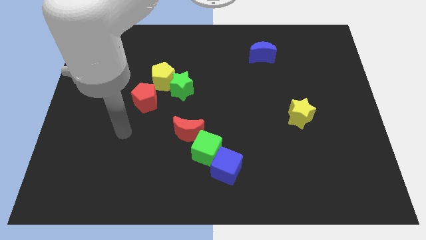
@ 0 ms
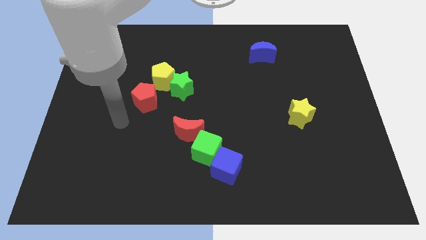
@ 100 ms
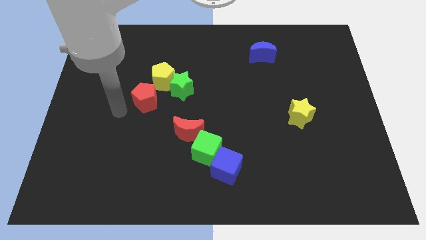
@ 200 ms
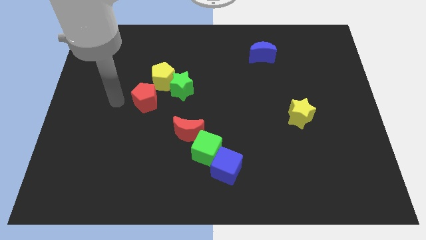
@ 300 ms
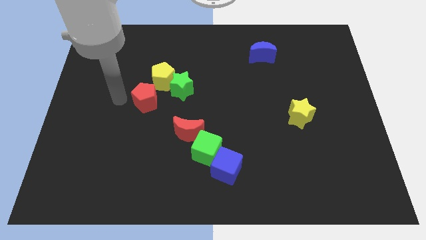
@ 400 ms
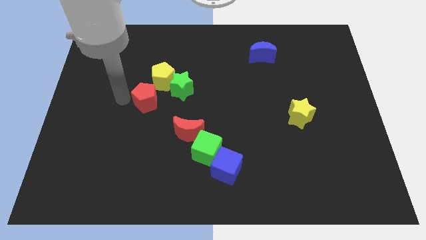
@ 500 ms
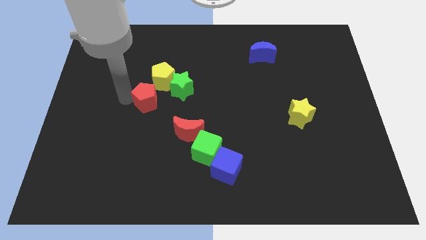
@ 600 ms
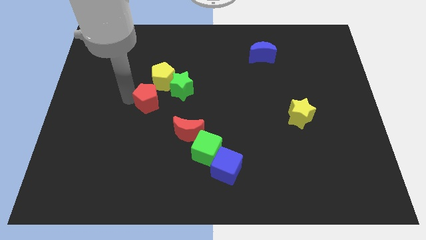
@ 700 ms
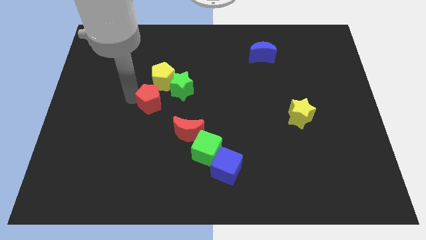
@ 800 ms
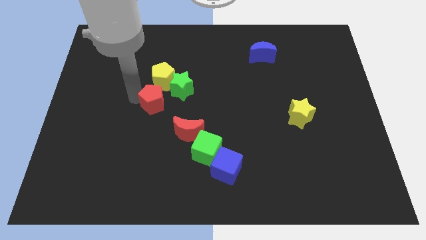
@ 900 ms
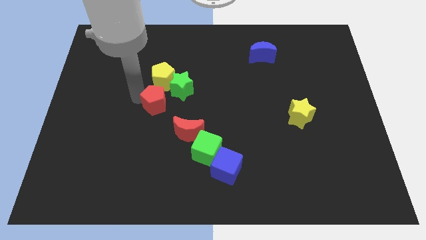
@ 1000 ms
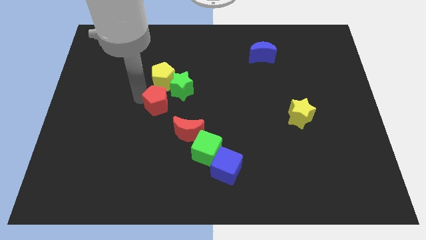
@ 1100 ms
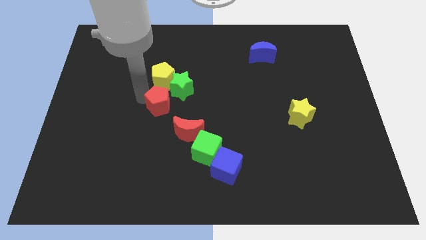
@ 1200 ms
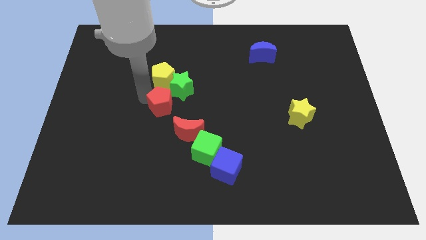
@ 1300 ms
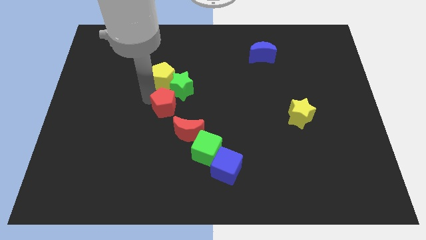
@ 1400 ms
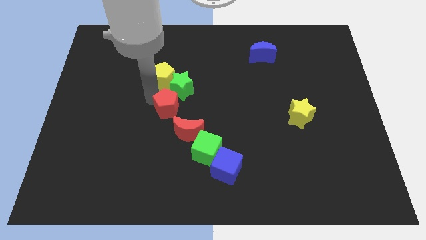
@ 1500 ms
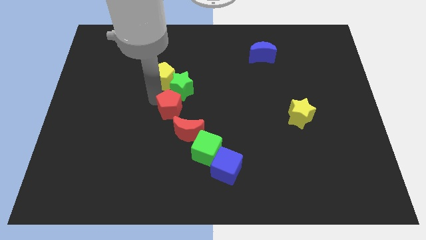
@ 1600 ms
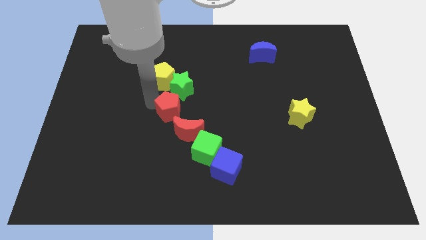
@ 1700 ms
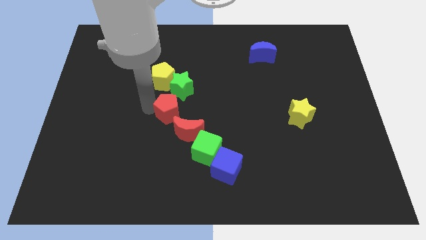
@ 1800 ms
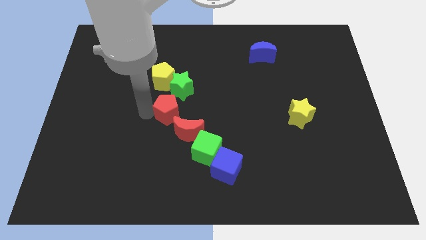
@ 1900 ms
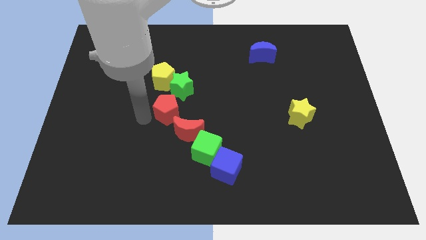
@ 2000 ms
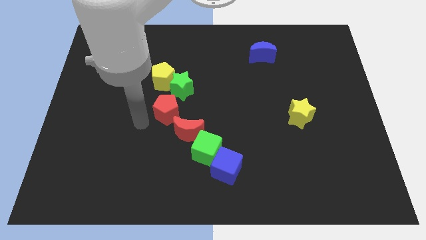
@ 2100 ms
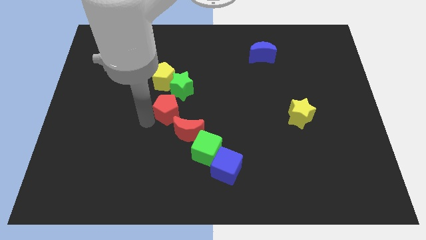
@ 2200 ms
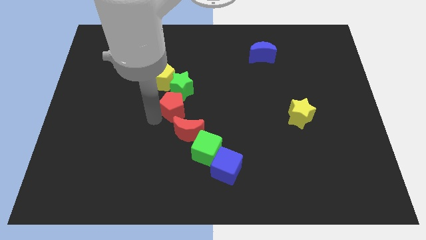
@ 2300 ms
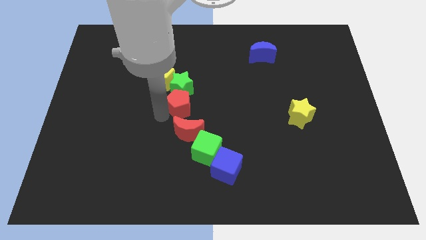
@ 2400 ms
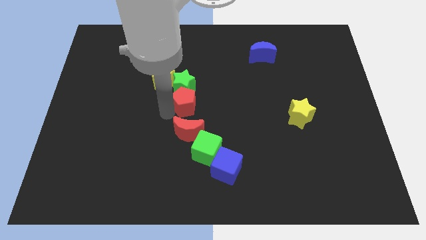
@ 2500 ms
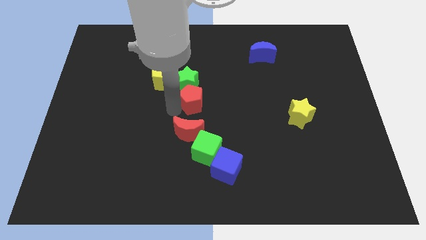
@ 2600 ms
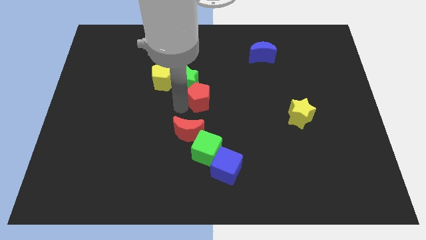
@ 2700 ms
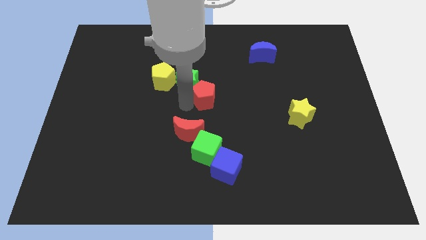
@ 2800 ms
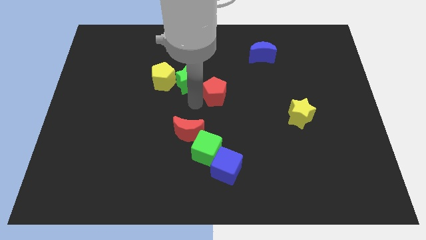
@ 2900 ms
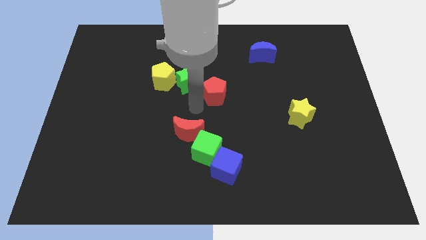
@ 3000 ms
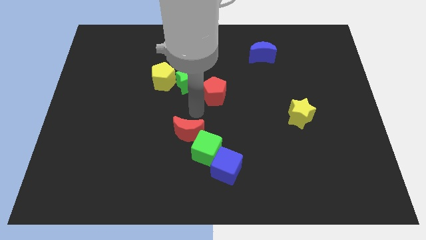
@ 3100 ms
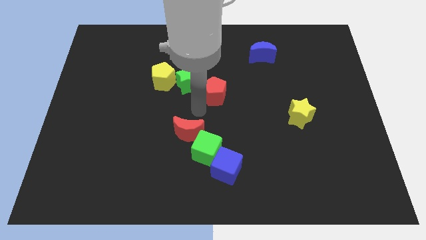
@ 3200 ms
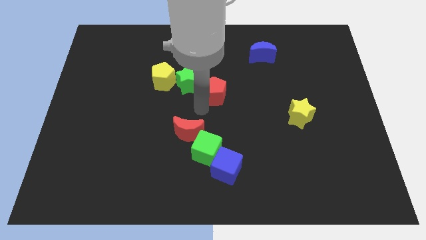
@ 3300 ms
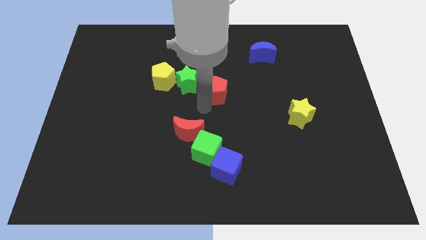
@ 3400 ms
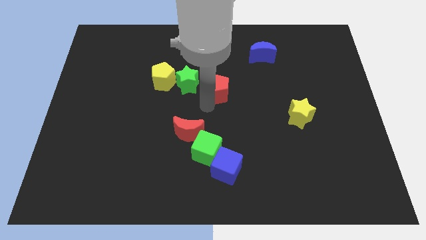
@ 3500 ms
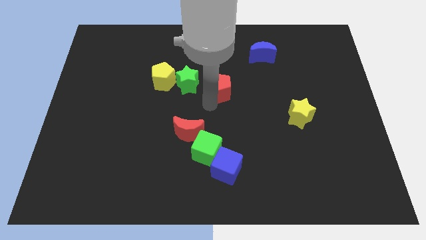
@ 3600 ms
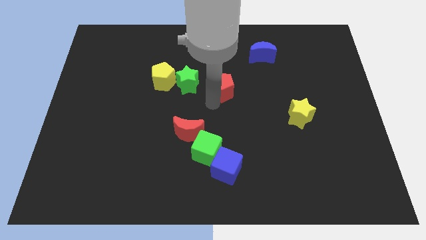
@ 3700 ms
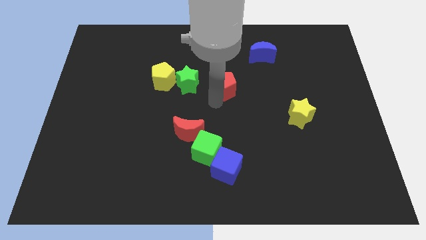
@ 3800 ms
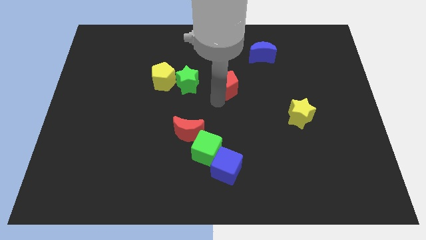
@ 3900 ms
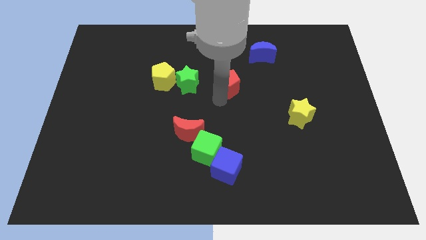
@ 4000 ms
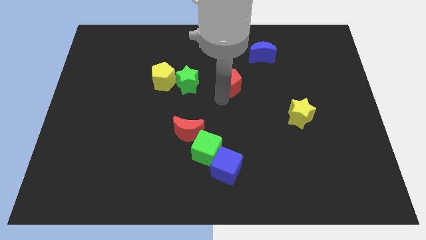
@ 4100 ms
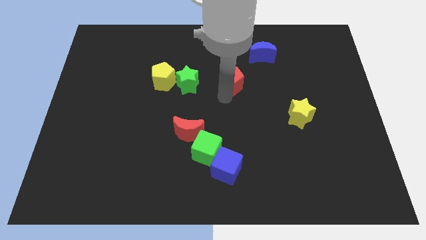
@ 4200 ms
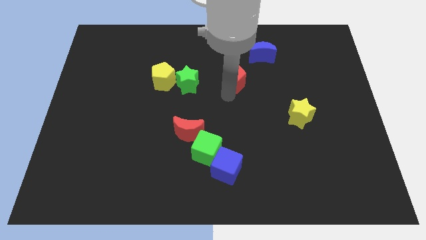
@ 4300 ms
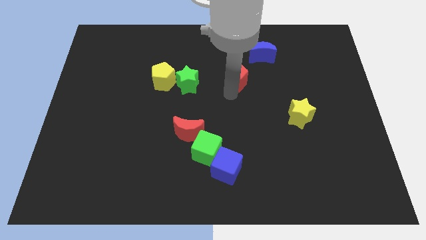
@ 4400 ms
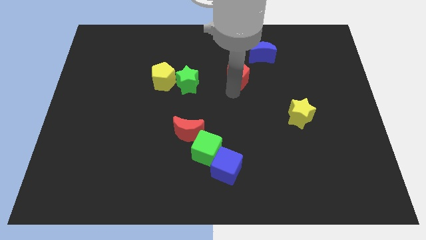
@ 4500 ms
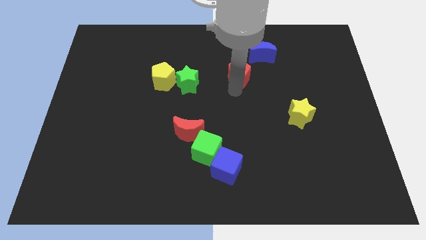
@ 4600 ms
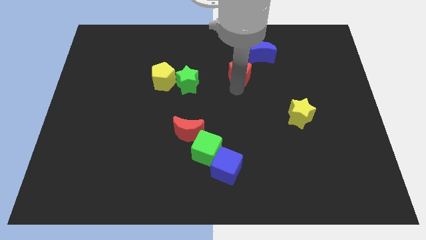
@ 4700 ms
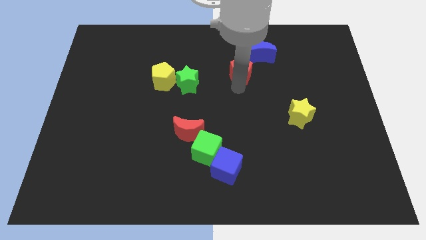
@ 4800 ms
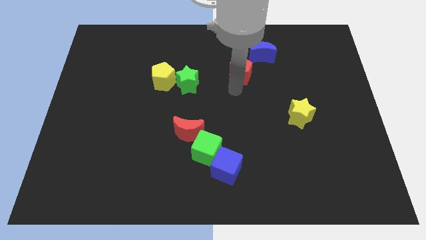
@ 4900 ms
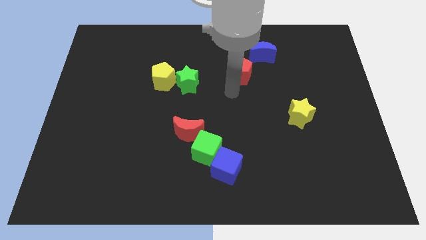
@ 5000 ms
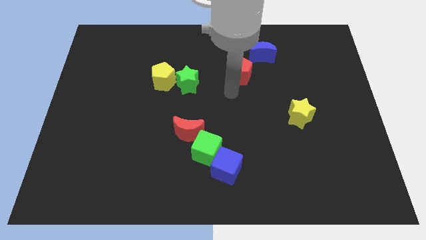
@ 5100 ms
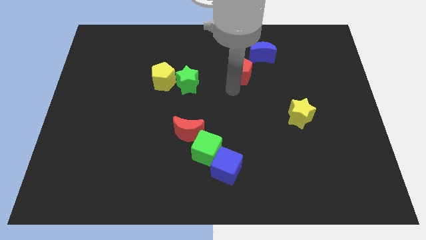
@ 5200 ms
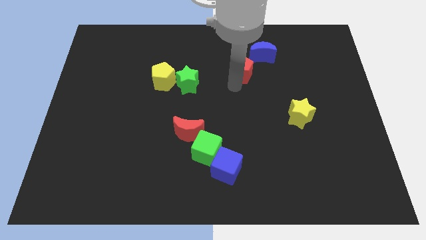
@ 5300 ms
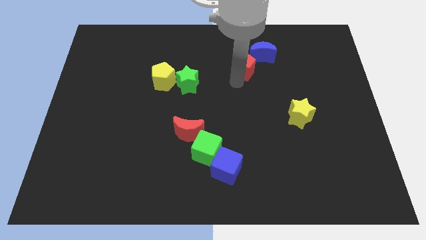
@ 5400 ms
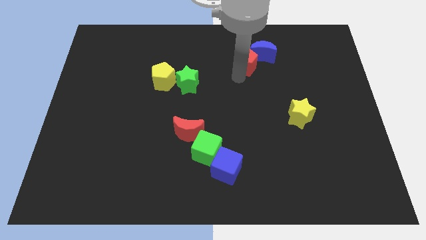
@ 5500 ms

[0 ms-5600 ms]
put the red pentagon next to the blue moon

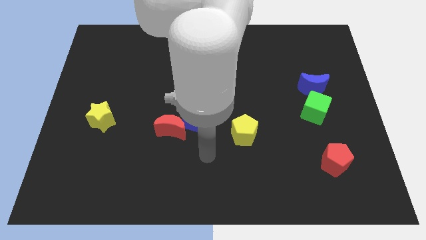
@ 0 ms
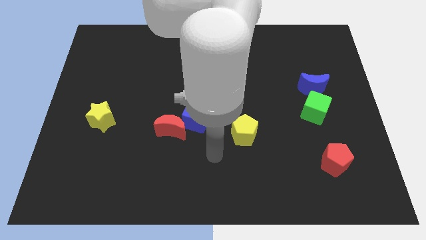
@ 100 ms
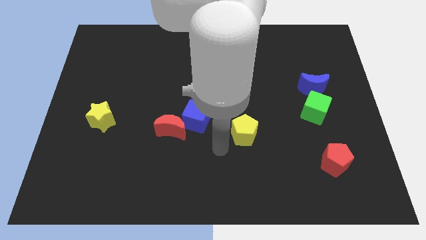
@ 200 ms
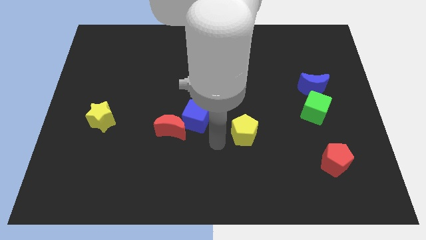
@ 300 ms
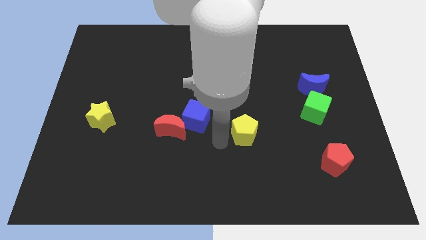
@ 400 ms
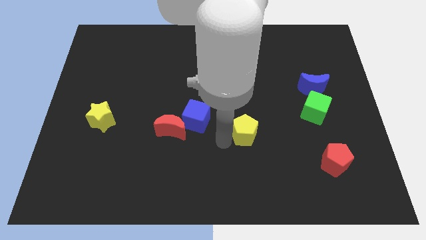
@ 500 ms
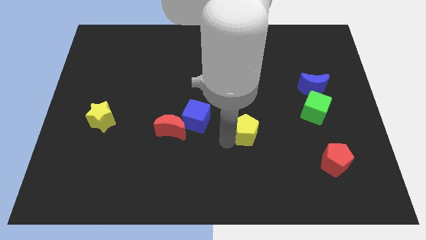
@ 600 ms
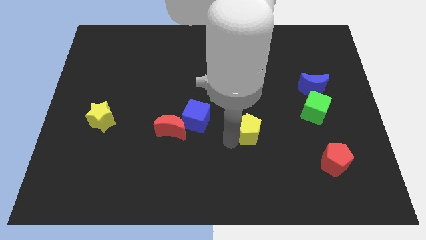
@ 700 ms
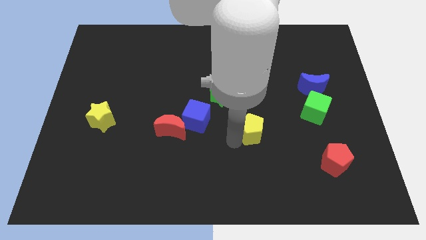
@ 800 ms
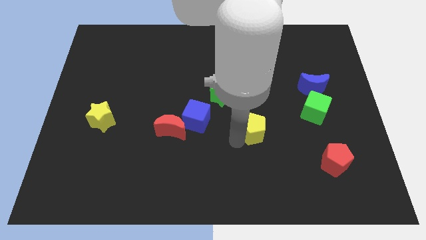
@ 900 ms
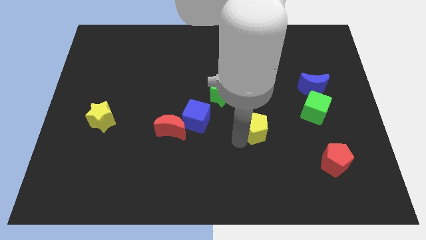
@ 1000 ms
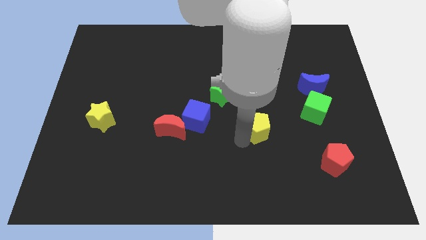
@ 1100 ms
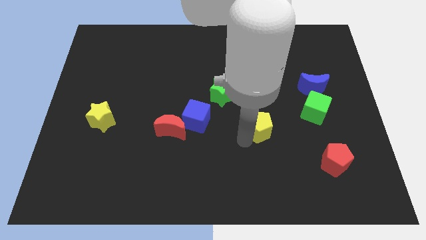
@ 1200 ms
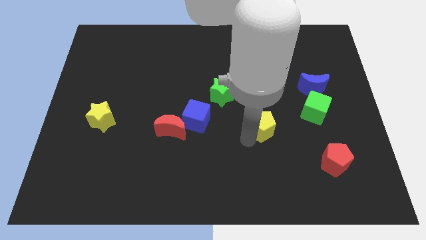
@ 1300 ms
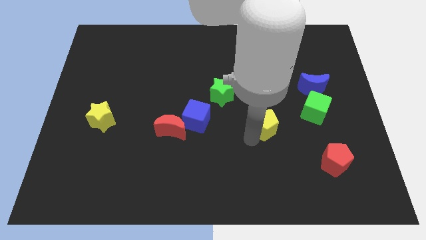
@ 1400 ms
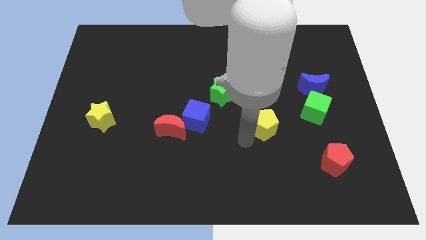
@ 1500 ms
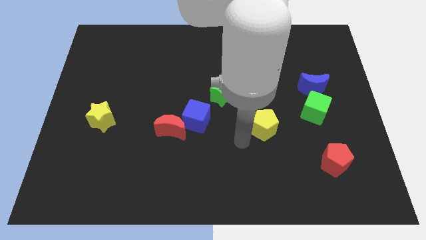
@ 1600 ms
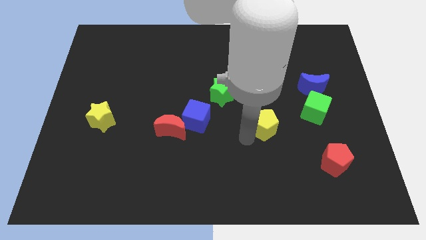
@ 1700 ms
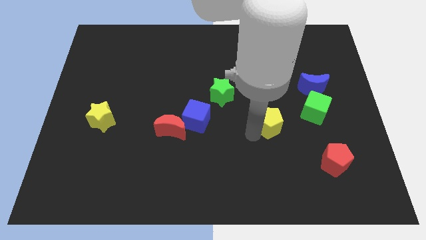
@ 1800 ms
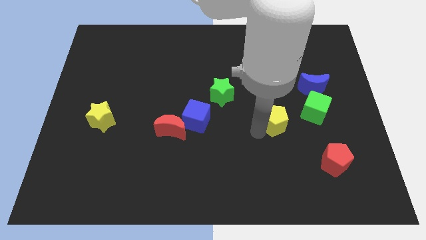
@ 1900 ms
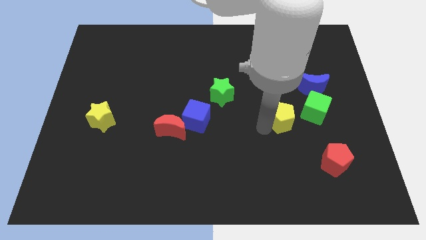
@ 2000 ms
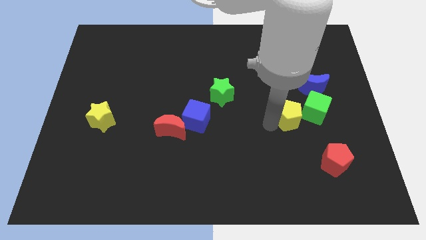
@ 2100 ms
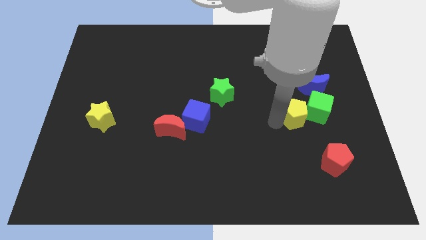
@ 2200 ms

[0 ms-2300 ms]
put the yellow pentagon close to the green cube
